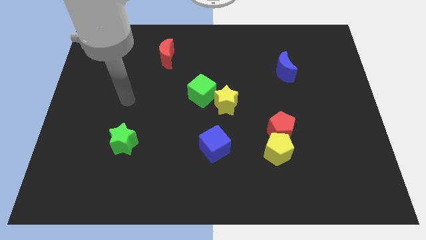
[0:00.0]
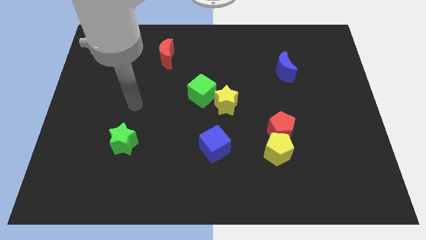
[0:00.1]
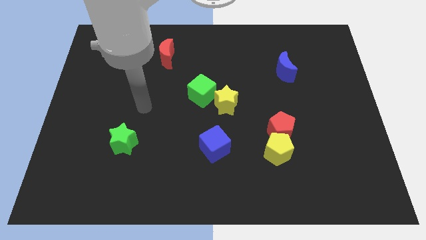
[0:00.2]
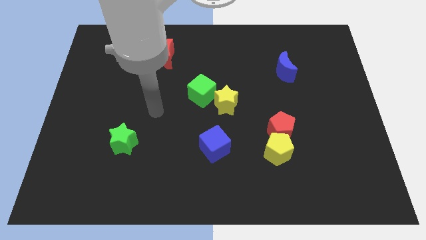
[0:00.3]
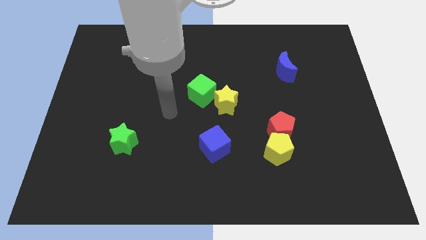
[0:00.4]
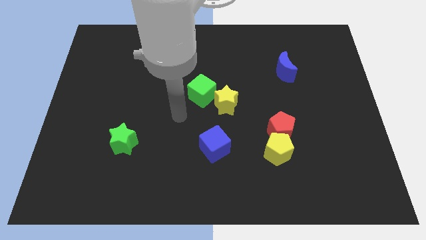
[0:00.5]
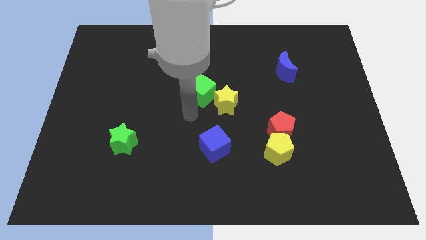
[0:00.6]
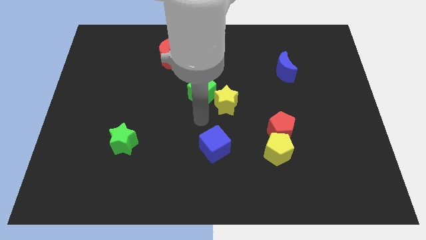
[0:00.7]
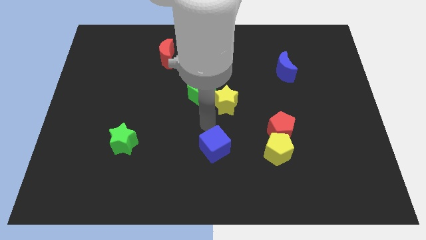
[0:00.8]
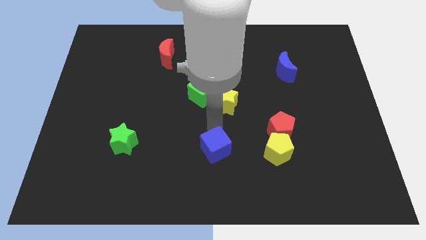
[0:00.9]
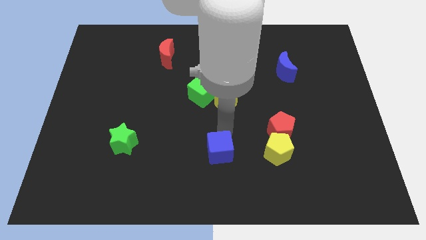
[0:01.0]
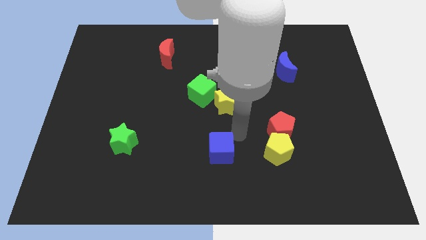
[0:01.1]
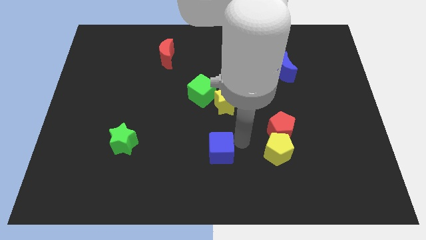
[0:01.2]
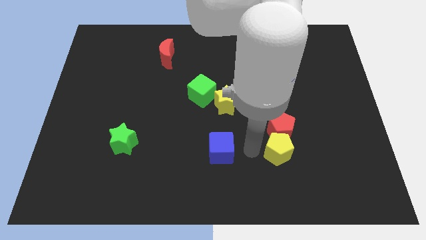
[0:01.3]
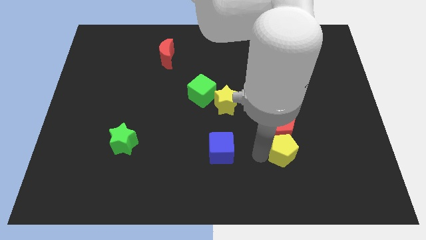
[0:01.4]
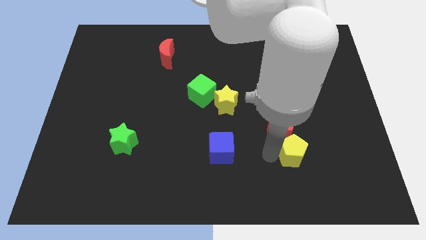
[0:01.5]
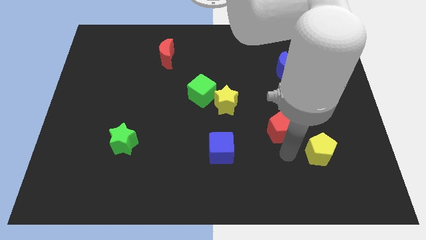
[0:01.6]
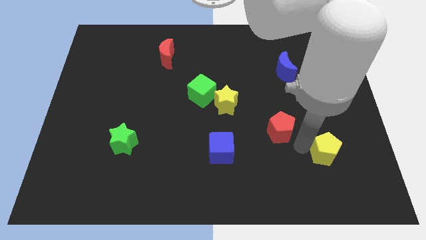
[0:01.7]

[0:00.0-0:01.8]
separate the red pentagon from the yellow pentagon

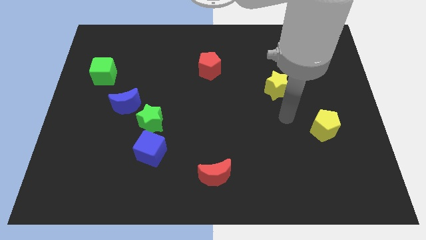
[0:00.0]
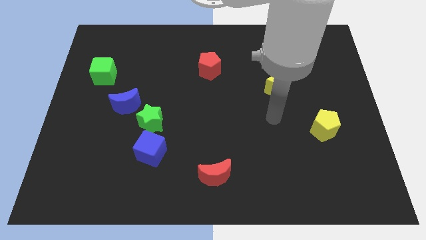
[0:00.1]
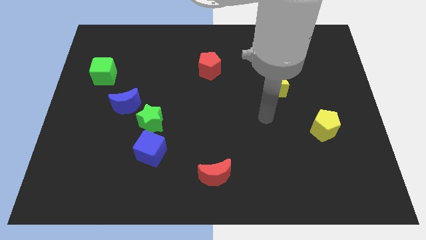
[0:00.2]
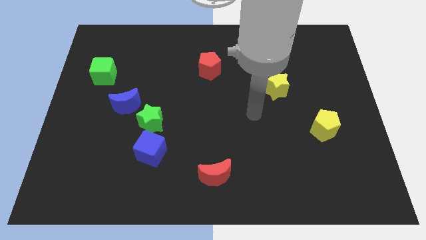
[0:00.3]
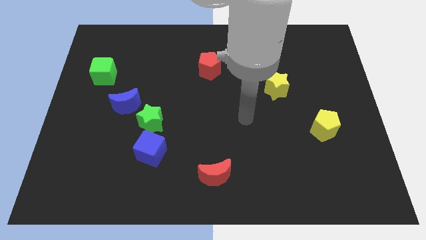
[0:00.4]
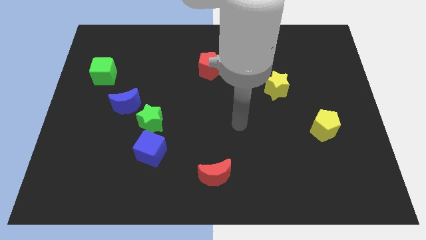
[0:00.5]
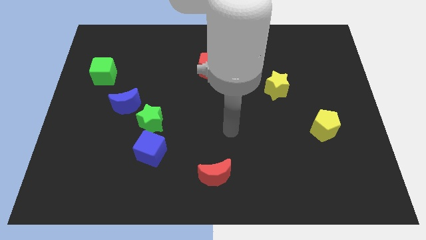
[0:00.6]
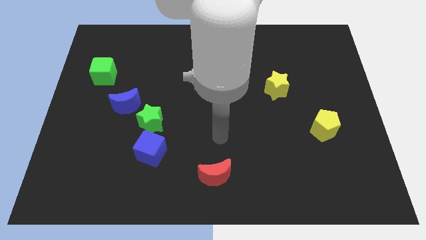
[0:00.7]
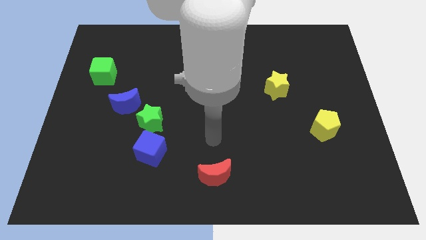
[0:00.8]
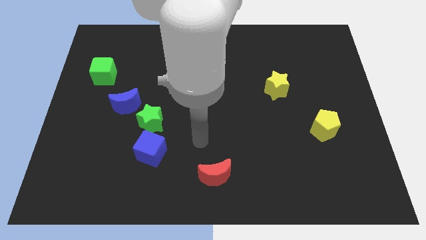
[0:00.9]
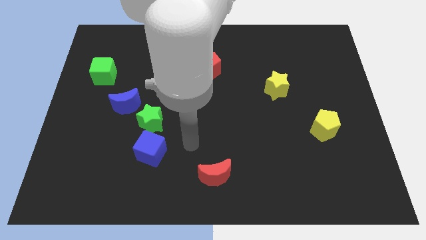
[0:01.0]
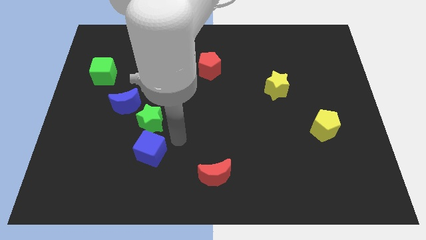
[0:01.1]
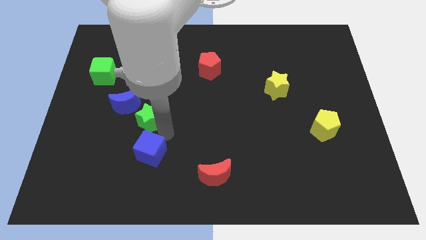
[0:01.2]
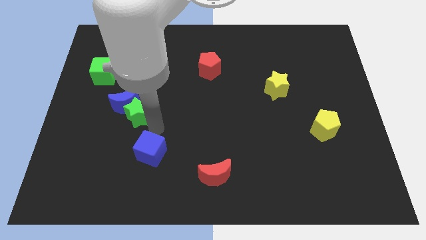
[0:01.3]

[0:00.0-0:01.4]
move the blue cube away from the green star

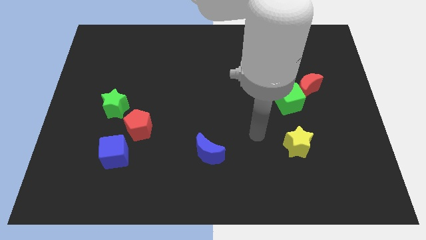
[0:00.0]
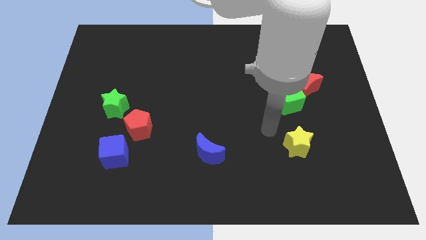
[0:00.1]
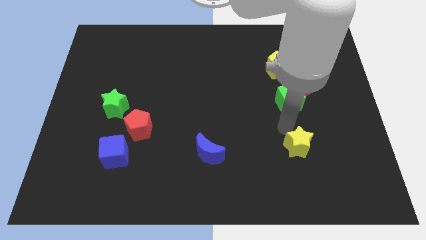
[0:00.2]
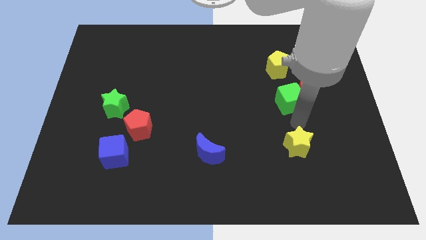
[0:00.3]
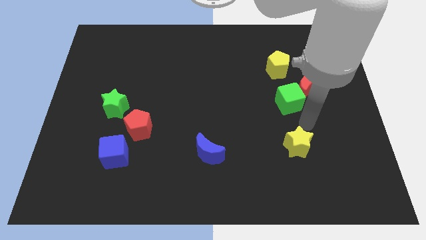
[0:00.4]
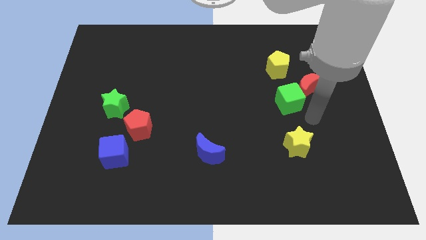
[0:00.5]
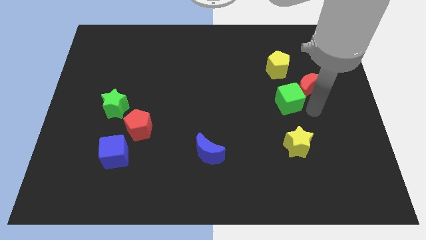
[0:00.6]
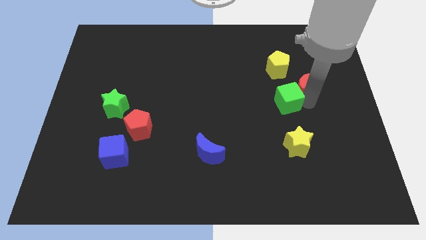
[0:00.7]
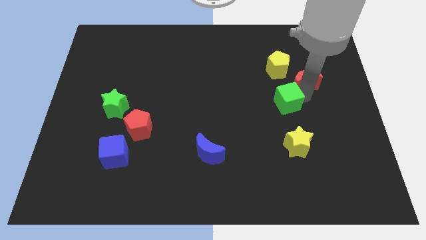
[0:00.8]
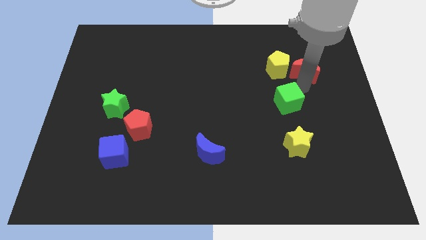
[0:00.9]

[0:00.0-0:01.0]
move the green cube away from the red moon

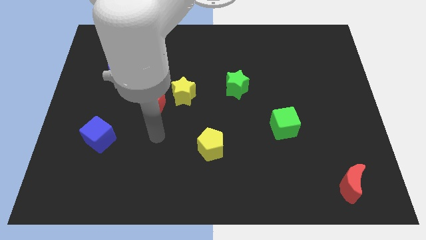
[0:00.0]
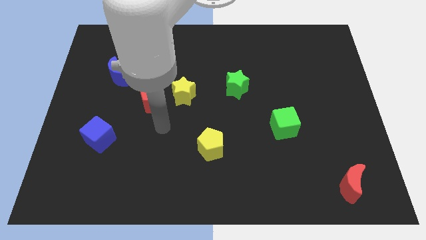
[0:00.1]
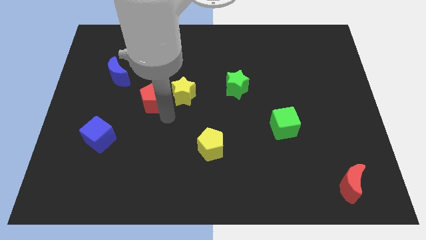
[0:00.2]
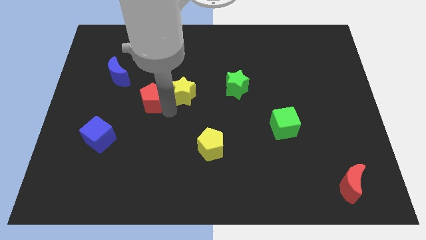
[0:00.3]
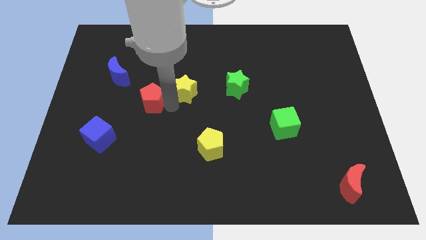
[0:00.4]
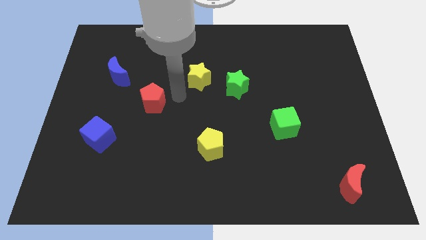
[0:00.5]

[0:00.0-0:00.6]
pull the red pentagon apart from the yellow star

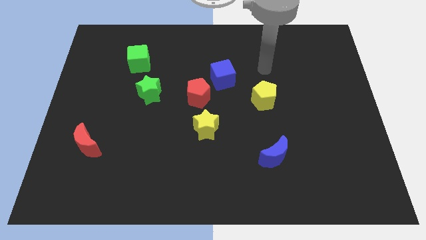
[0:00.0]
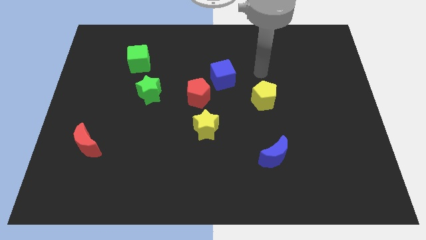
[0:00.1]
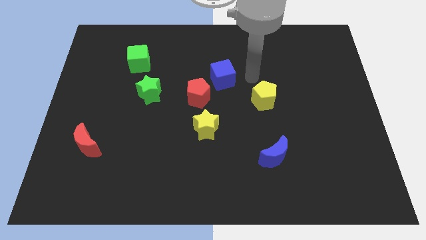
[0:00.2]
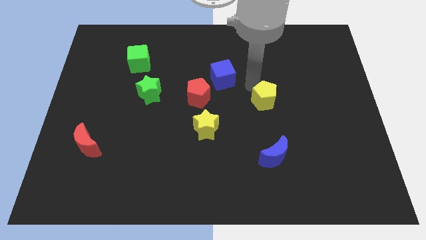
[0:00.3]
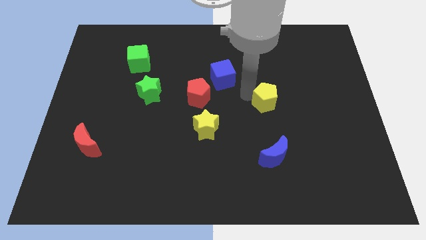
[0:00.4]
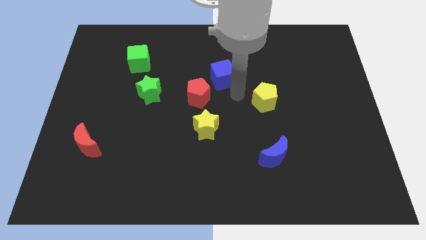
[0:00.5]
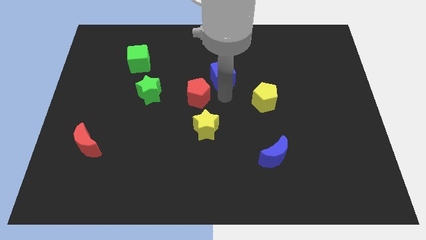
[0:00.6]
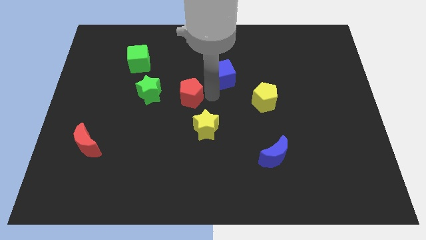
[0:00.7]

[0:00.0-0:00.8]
separate the blue cube from the red pentagon

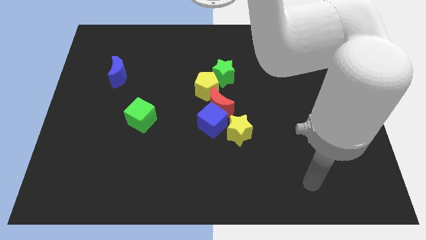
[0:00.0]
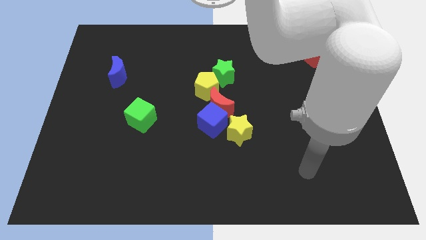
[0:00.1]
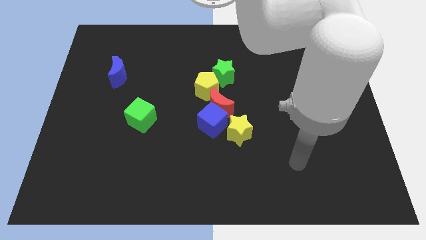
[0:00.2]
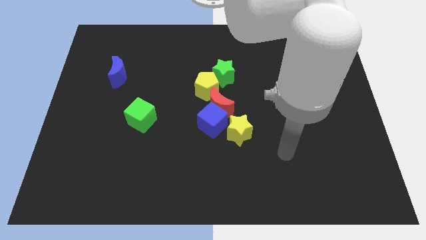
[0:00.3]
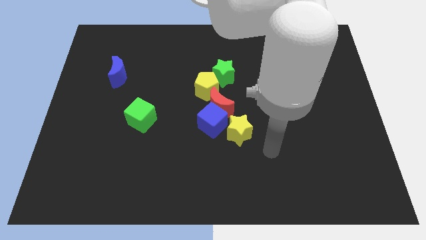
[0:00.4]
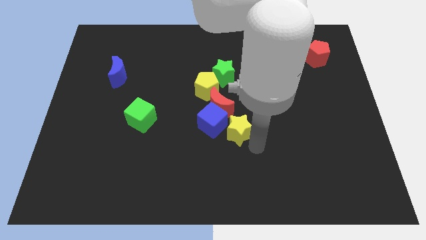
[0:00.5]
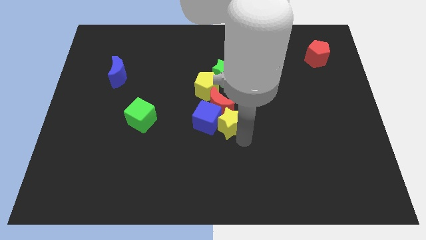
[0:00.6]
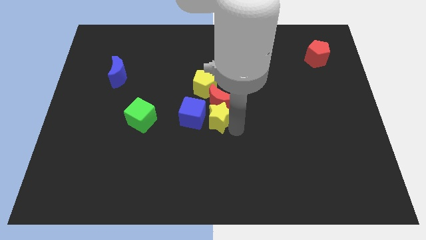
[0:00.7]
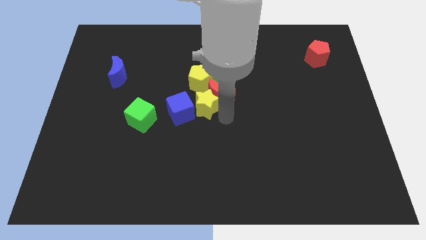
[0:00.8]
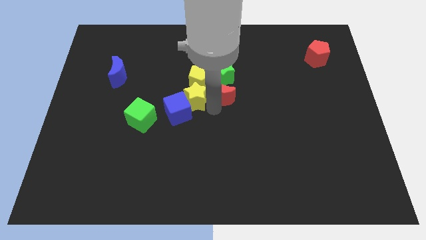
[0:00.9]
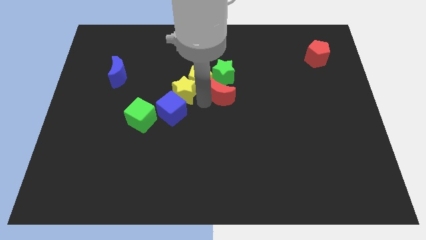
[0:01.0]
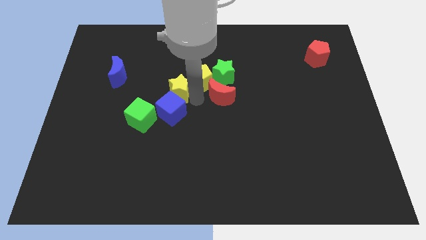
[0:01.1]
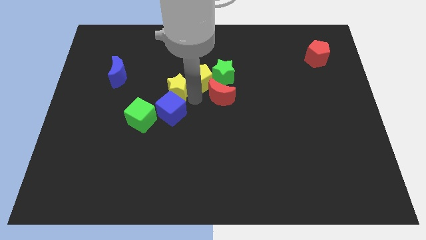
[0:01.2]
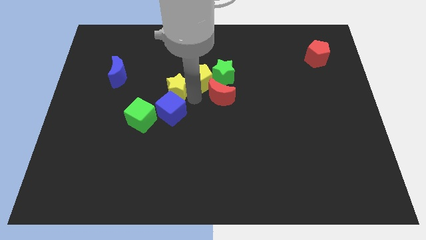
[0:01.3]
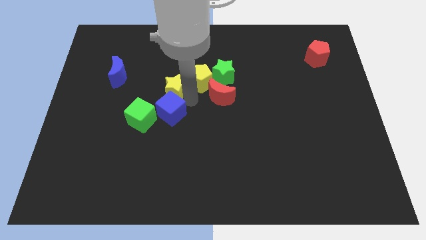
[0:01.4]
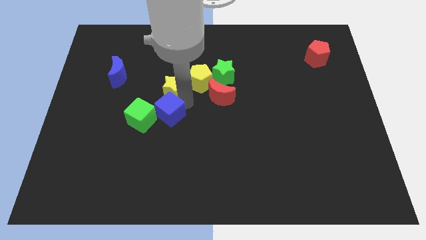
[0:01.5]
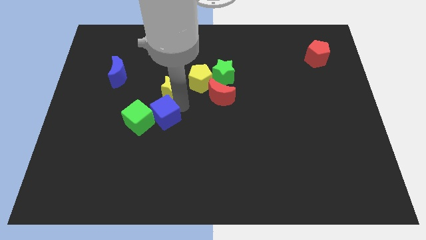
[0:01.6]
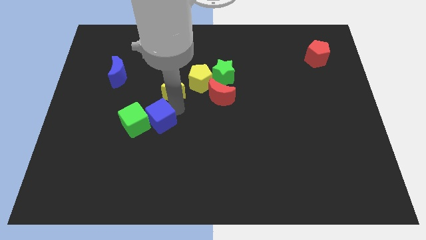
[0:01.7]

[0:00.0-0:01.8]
pull the blue cube apart from the red moon and yellow star

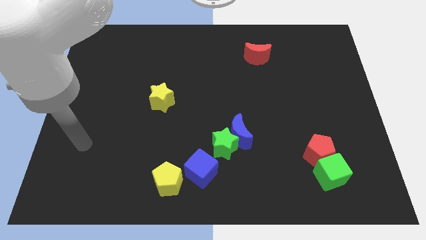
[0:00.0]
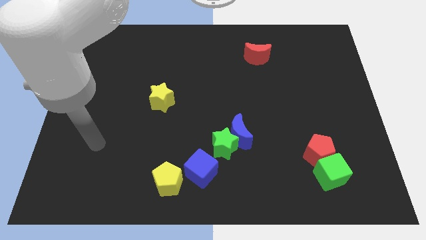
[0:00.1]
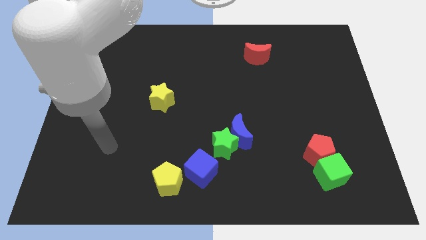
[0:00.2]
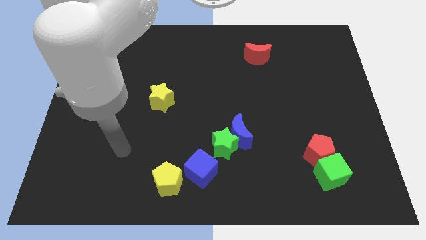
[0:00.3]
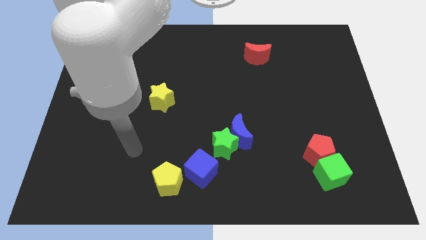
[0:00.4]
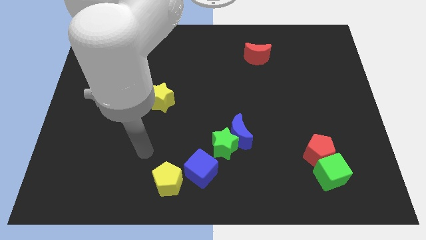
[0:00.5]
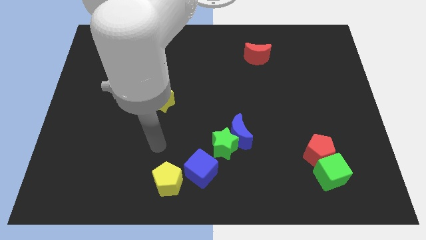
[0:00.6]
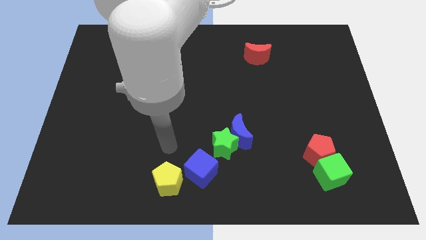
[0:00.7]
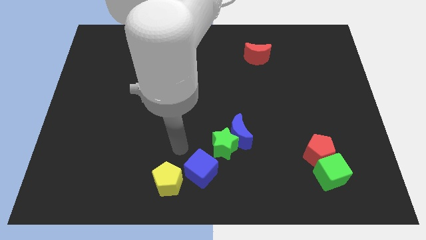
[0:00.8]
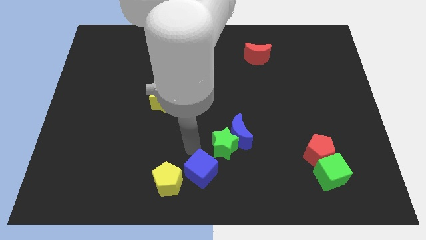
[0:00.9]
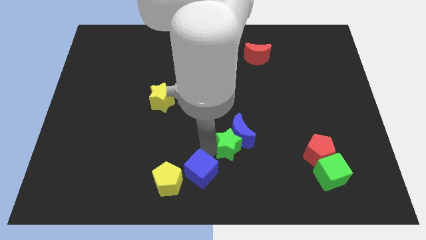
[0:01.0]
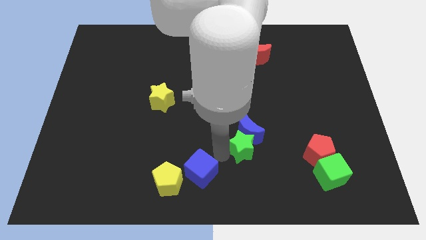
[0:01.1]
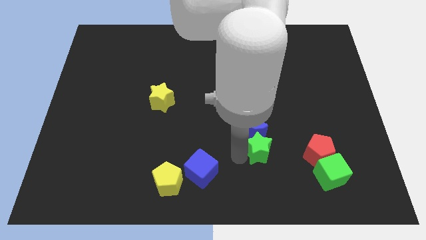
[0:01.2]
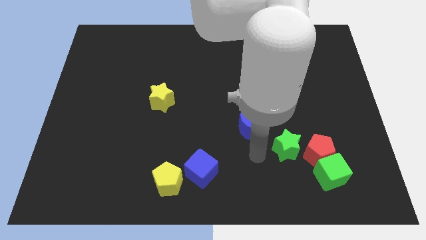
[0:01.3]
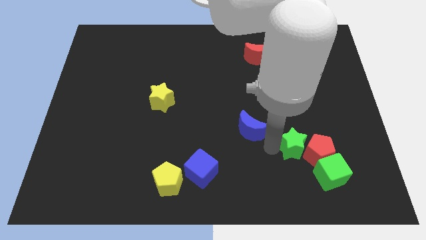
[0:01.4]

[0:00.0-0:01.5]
move the blue moon away from the green star

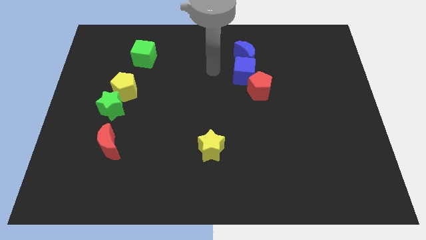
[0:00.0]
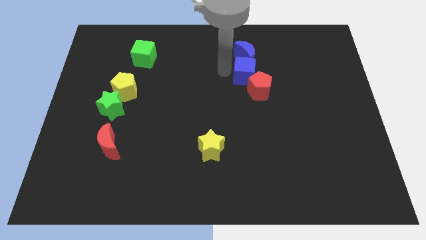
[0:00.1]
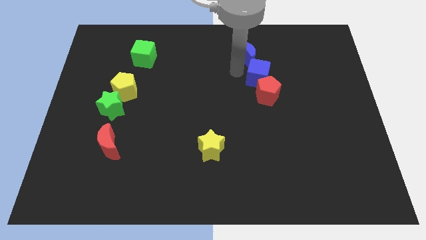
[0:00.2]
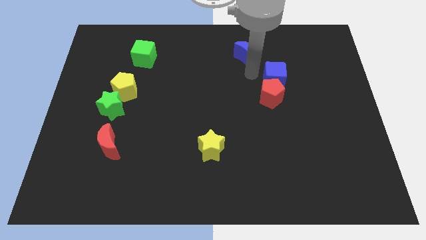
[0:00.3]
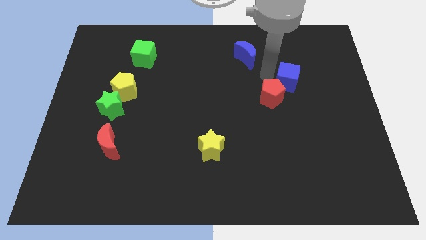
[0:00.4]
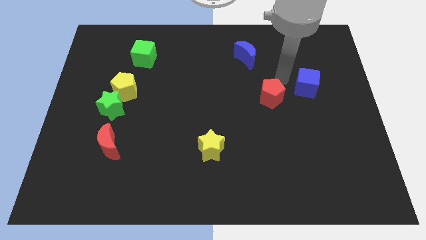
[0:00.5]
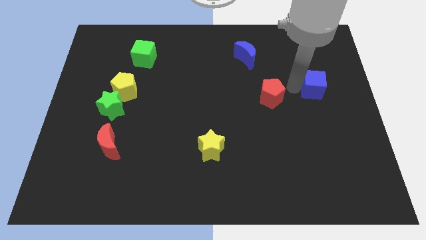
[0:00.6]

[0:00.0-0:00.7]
separate the red pentagon from the blue cube
